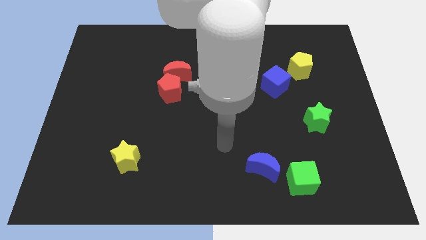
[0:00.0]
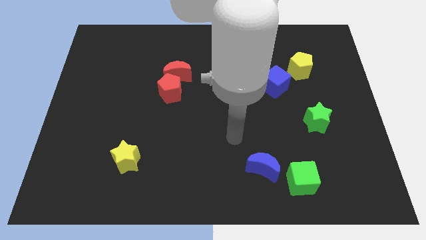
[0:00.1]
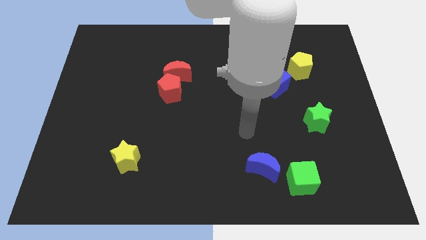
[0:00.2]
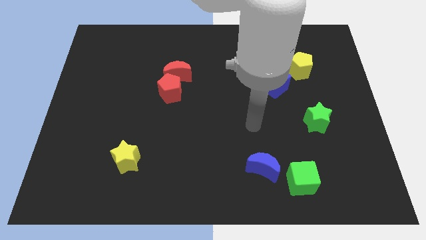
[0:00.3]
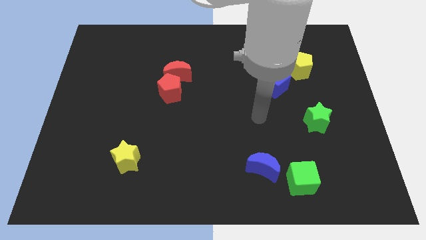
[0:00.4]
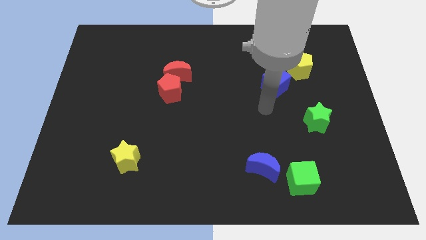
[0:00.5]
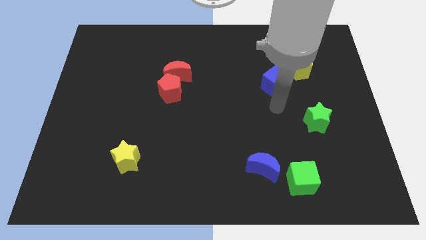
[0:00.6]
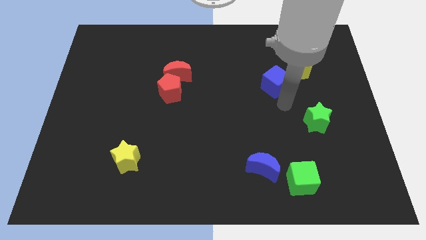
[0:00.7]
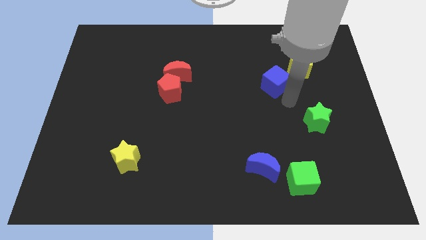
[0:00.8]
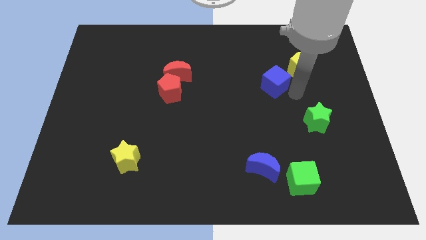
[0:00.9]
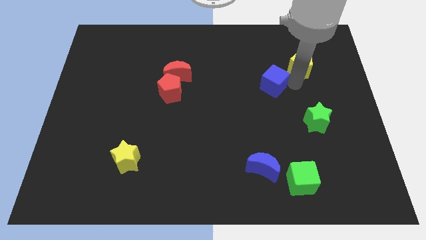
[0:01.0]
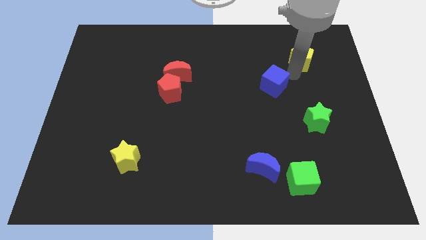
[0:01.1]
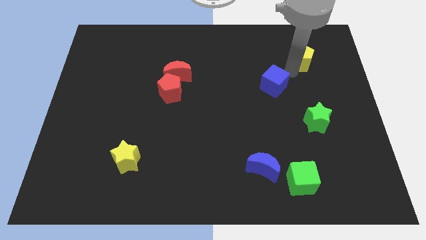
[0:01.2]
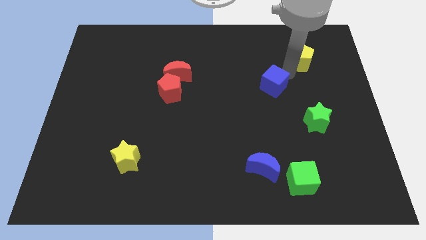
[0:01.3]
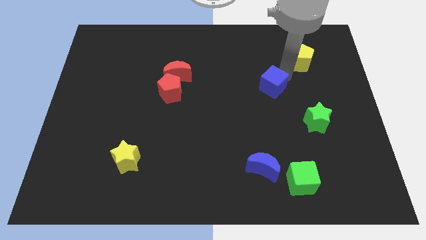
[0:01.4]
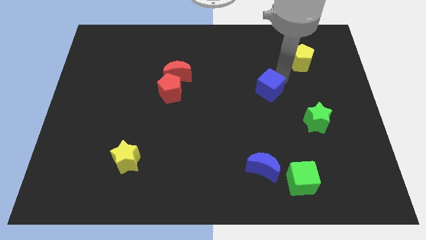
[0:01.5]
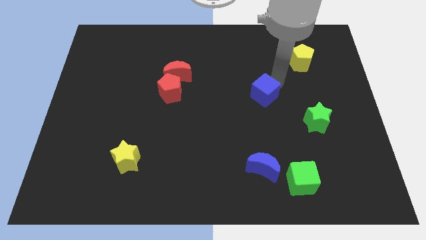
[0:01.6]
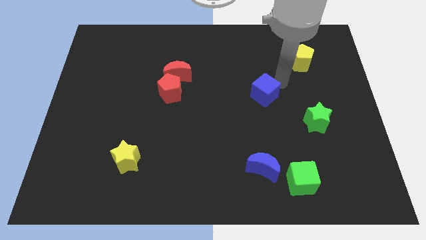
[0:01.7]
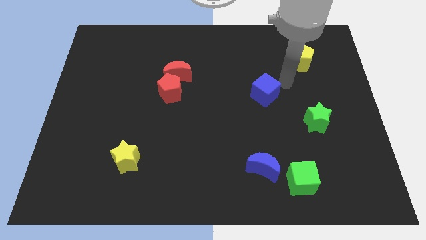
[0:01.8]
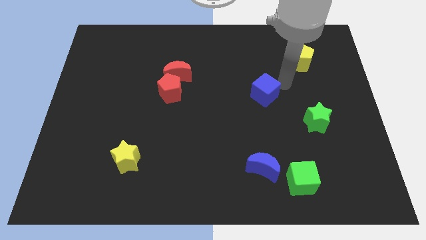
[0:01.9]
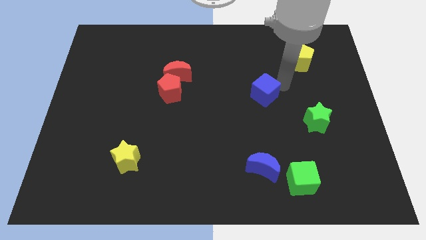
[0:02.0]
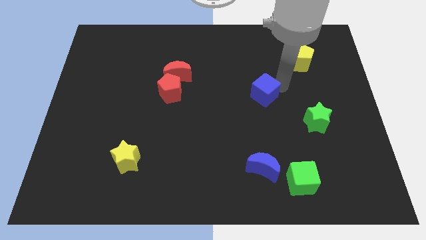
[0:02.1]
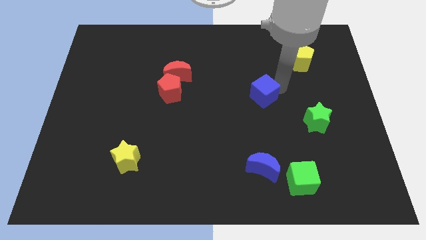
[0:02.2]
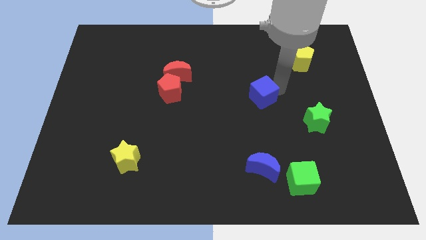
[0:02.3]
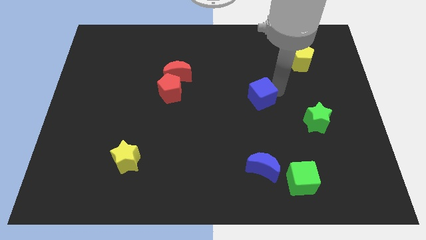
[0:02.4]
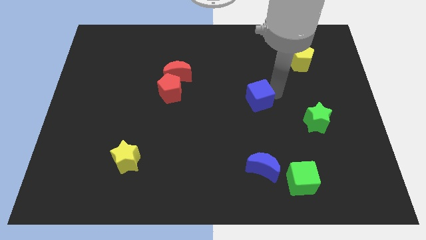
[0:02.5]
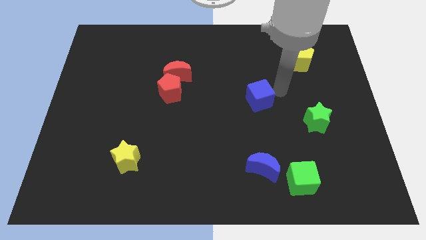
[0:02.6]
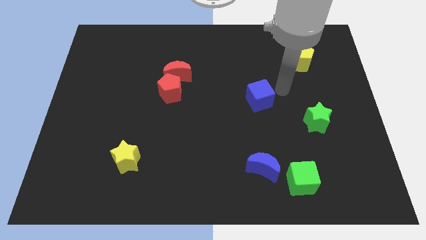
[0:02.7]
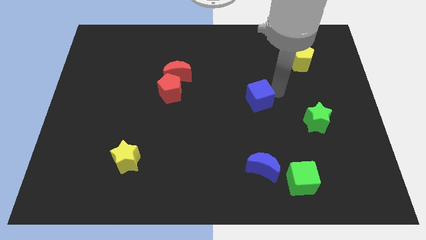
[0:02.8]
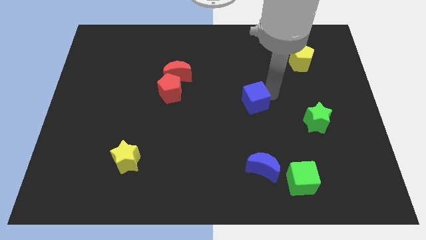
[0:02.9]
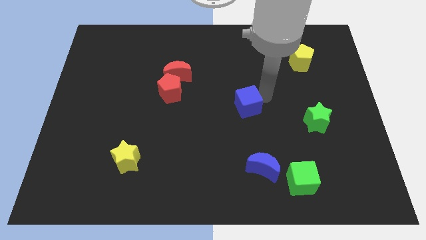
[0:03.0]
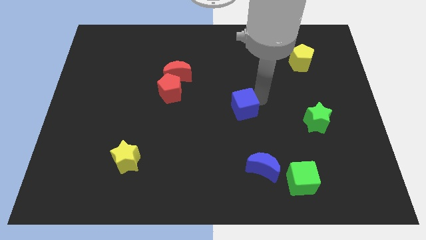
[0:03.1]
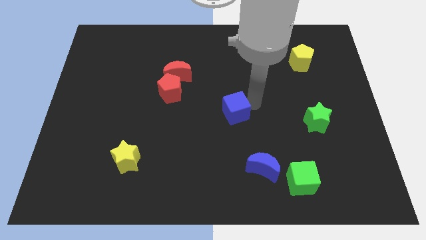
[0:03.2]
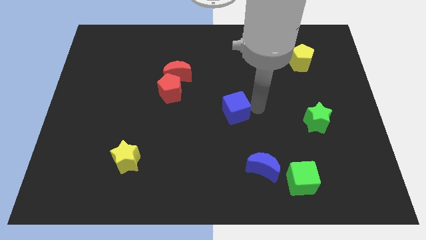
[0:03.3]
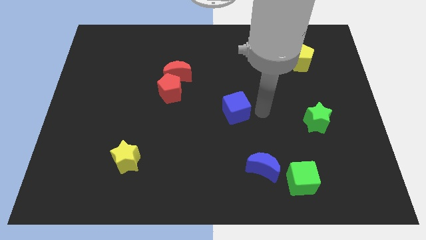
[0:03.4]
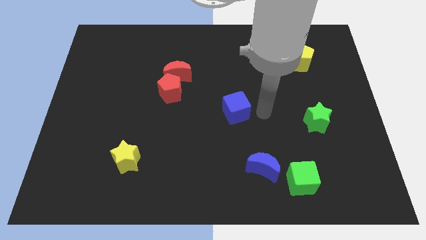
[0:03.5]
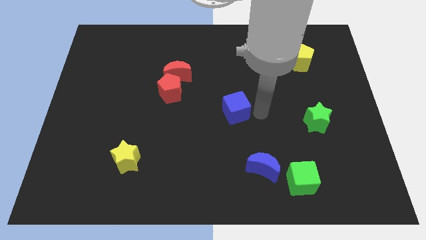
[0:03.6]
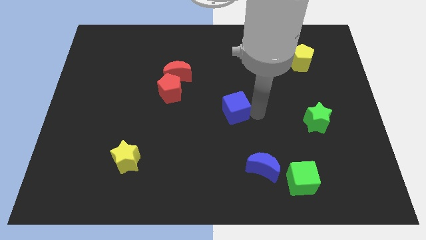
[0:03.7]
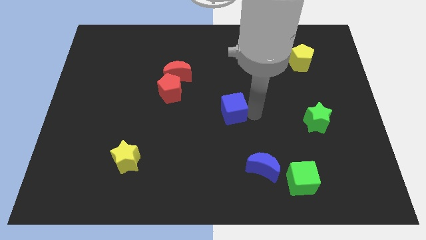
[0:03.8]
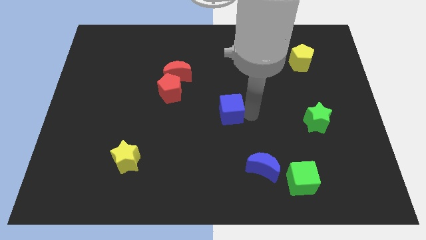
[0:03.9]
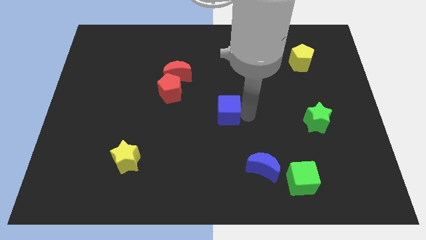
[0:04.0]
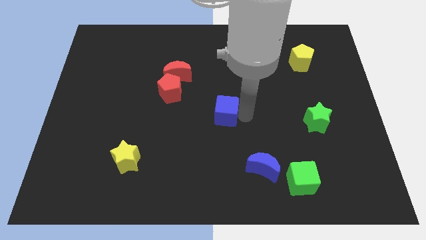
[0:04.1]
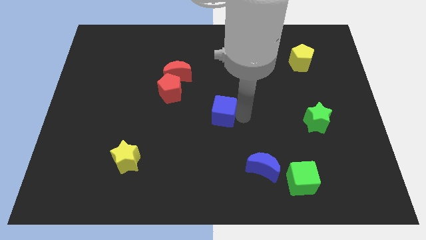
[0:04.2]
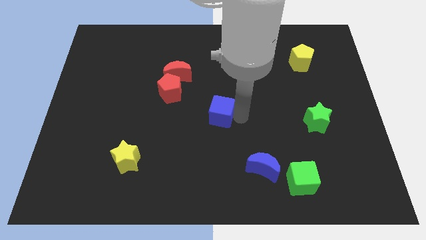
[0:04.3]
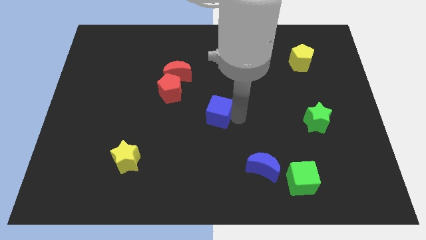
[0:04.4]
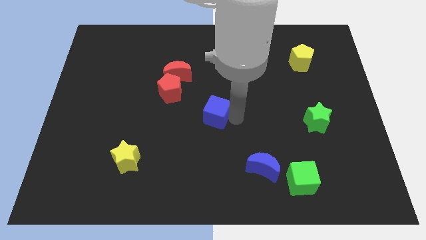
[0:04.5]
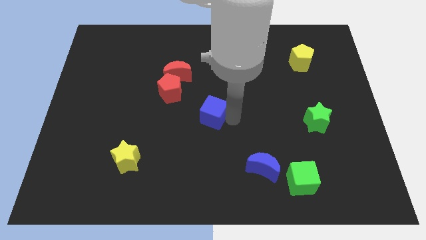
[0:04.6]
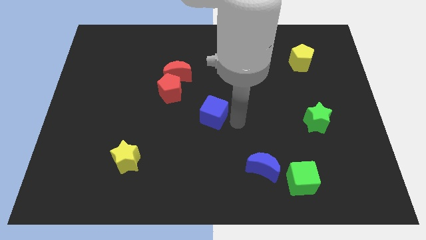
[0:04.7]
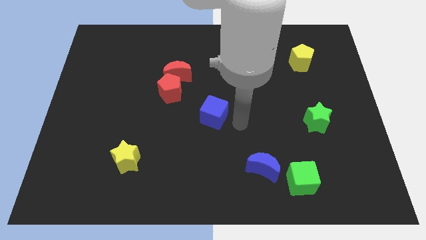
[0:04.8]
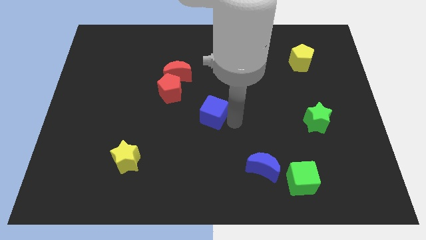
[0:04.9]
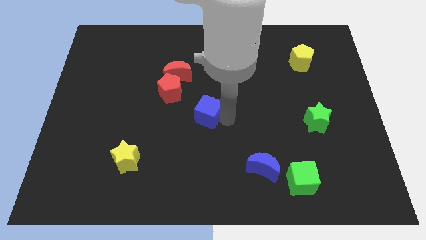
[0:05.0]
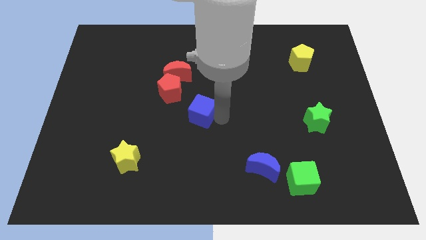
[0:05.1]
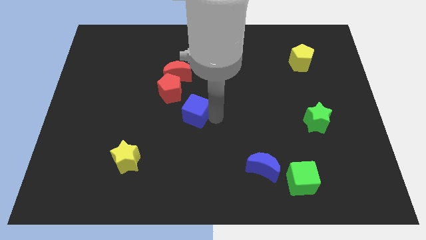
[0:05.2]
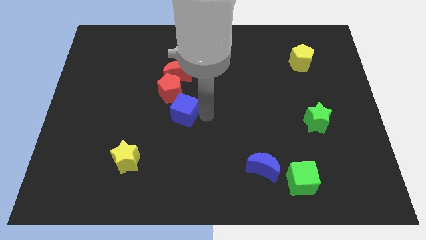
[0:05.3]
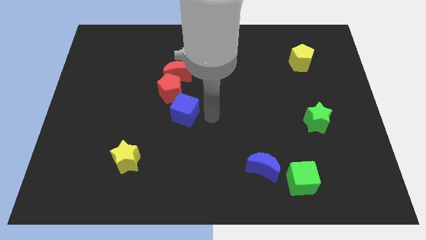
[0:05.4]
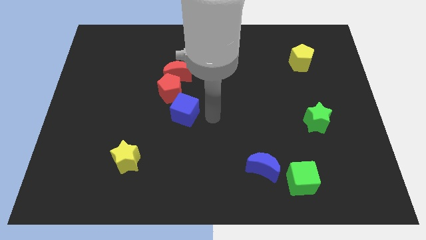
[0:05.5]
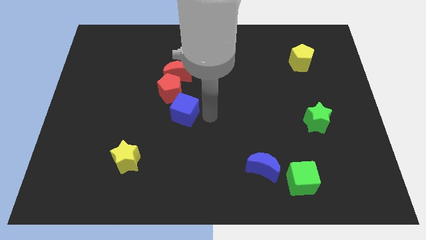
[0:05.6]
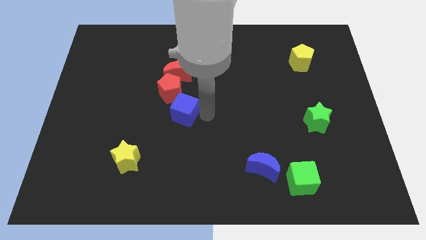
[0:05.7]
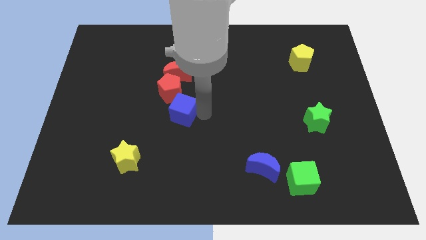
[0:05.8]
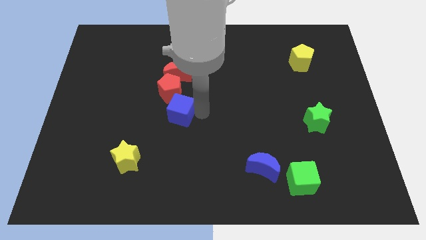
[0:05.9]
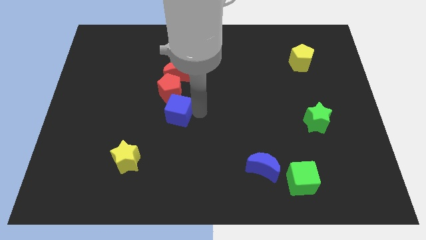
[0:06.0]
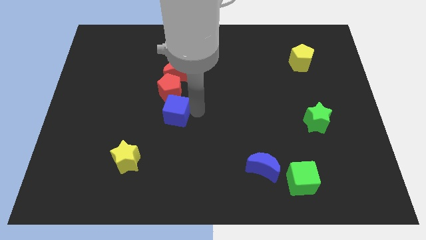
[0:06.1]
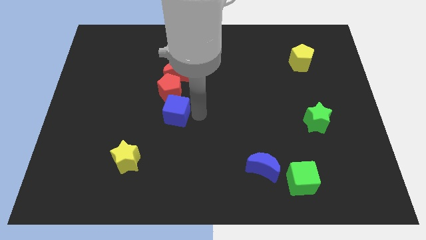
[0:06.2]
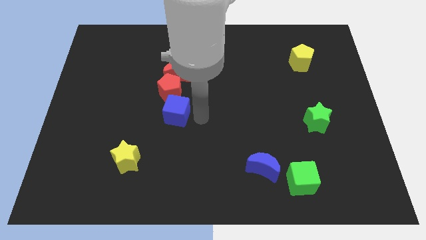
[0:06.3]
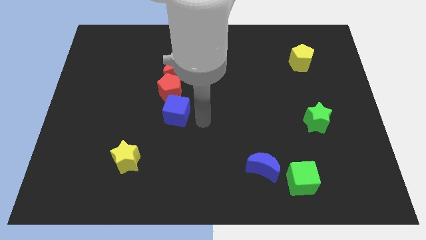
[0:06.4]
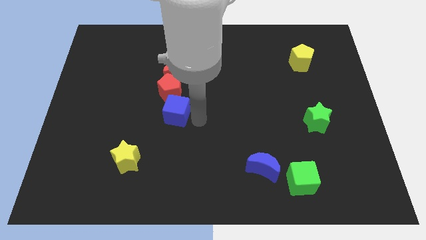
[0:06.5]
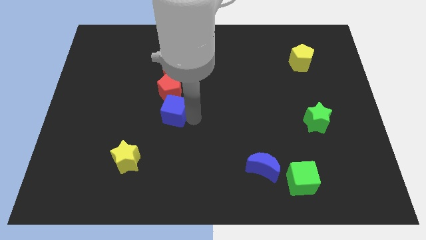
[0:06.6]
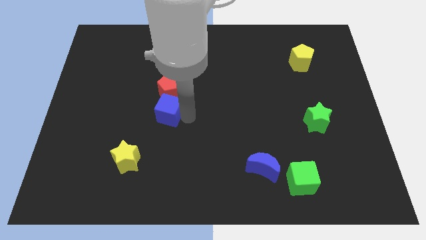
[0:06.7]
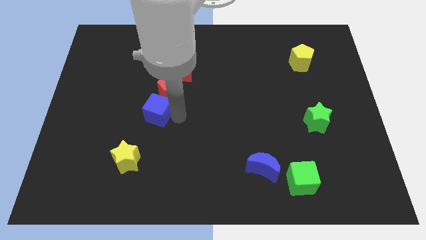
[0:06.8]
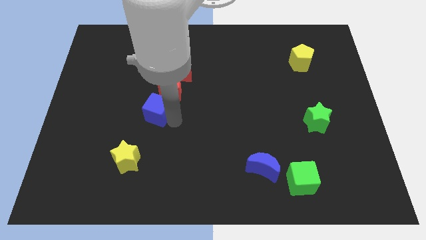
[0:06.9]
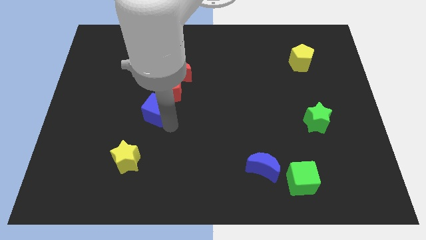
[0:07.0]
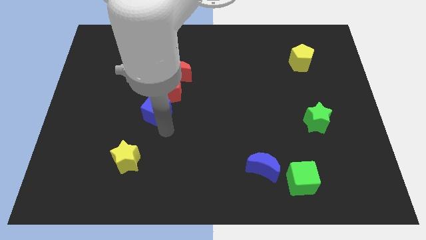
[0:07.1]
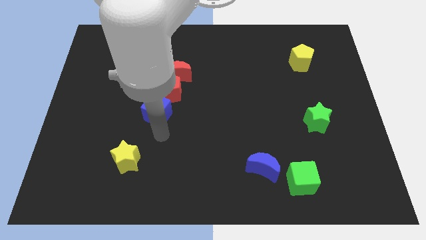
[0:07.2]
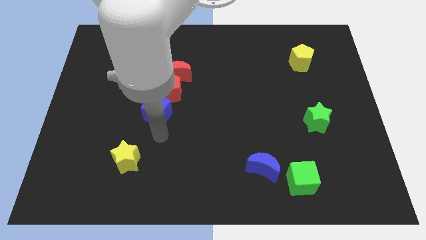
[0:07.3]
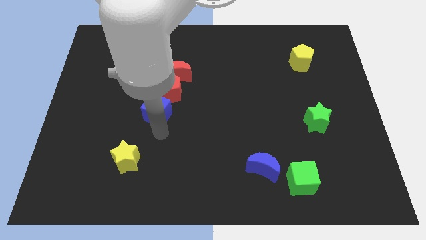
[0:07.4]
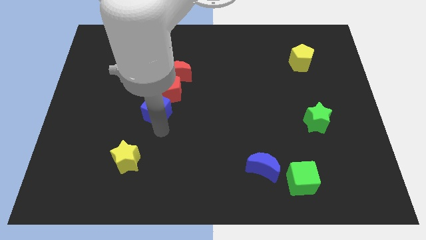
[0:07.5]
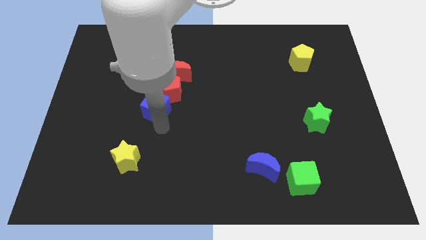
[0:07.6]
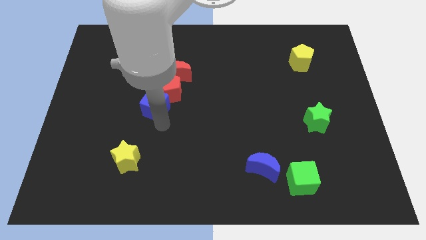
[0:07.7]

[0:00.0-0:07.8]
slide the blue cube diagonally down and to the left of the red moon

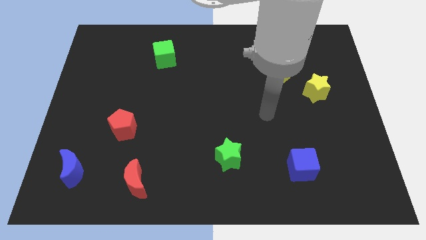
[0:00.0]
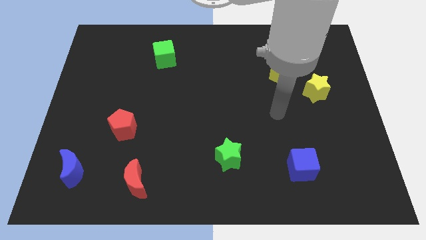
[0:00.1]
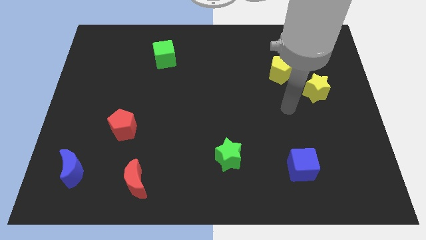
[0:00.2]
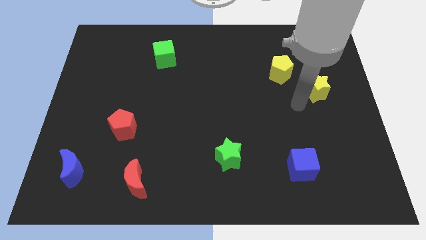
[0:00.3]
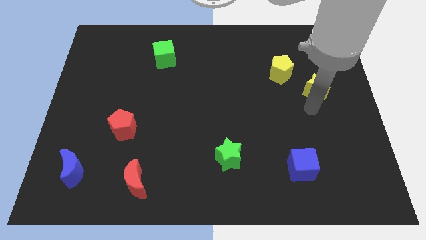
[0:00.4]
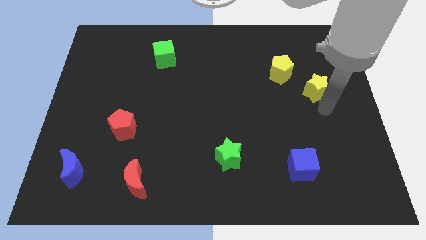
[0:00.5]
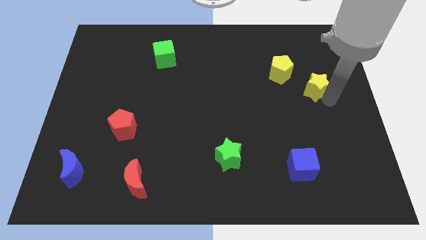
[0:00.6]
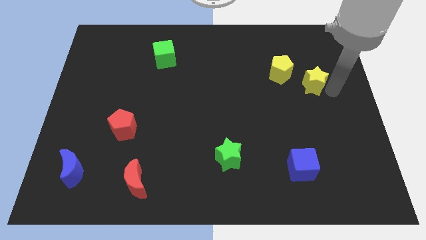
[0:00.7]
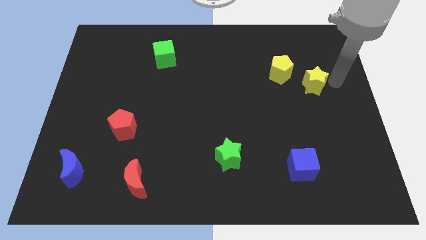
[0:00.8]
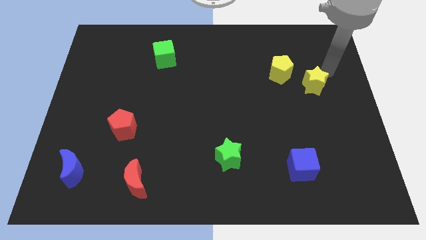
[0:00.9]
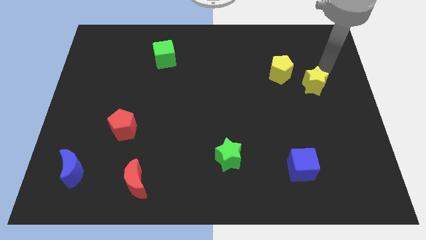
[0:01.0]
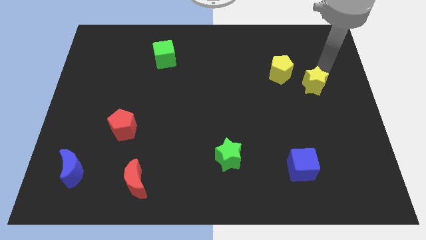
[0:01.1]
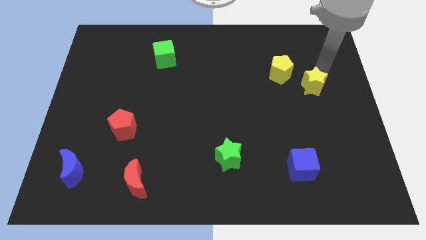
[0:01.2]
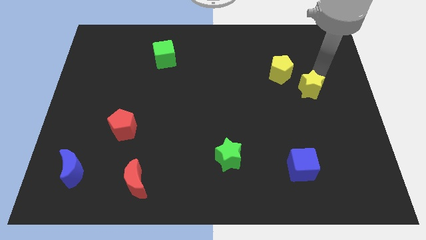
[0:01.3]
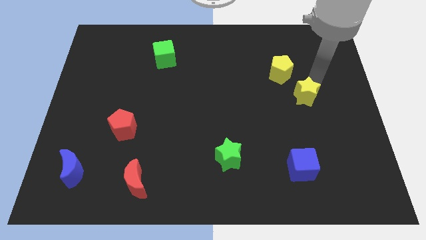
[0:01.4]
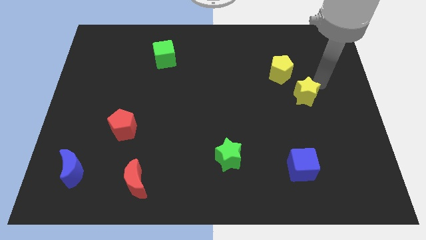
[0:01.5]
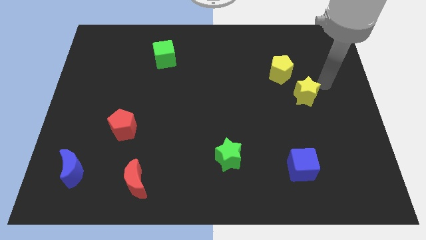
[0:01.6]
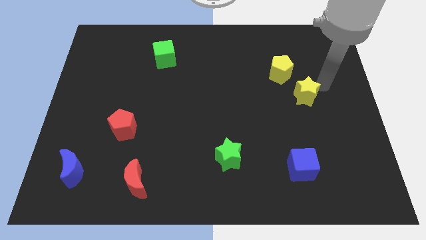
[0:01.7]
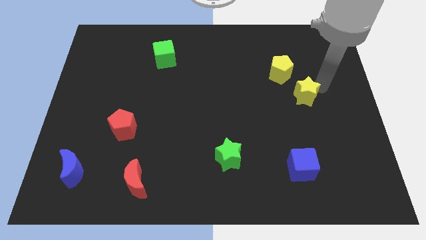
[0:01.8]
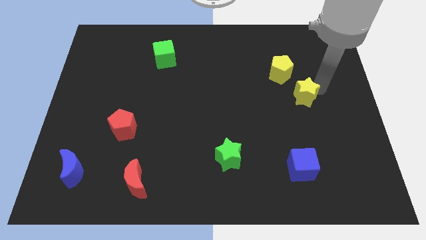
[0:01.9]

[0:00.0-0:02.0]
slide the yellow star to the bottom of the yellow pentagon
